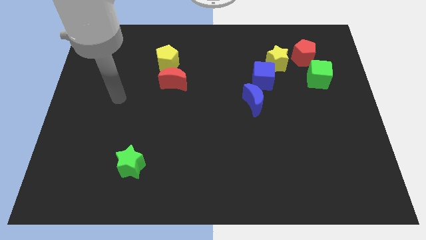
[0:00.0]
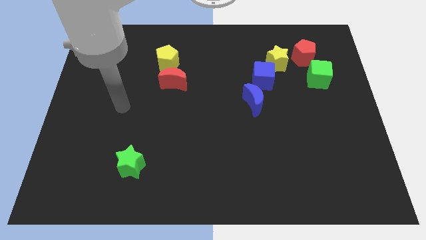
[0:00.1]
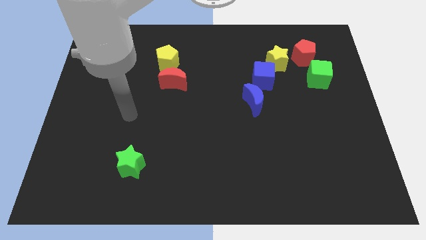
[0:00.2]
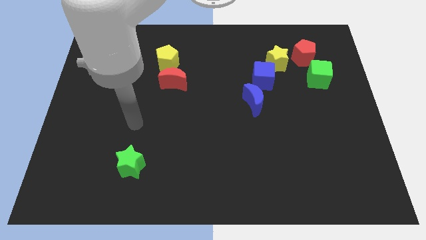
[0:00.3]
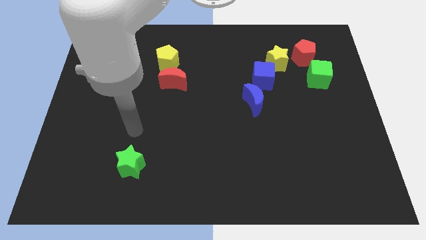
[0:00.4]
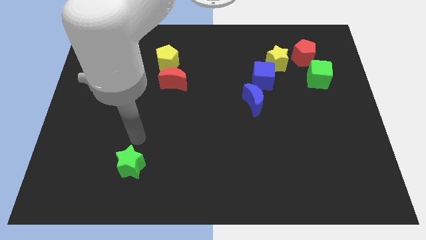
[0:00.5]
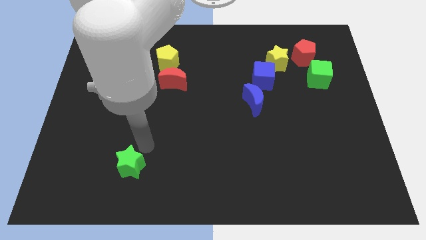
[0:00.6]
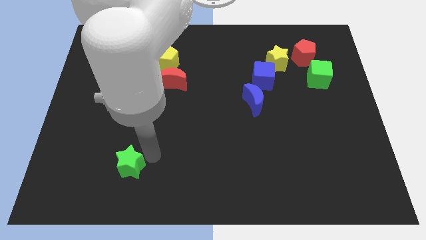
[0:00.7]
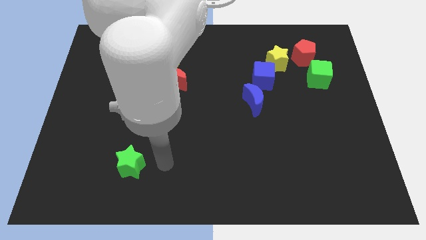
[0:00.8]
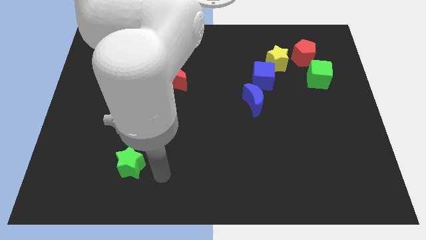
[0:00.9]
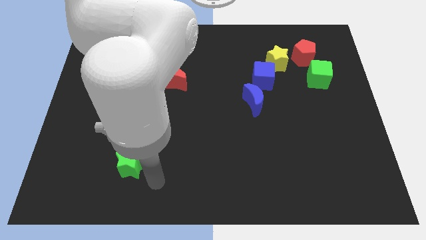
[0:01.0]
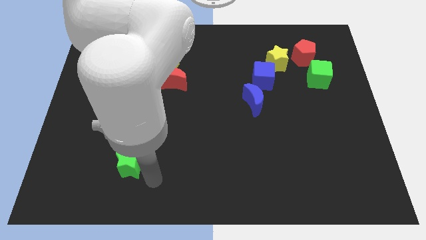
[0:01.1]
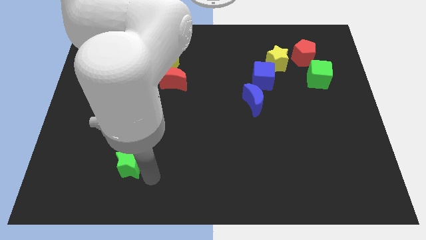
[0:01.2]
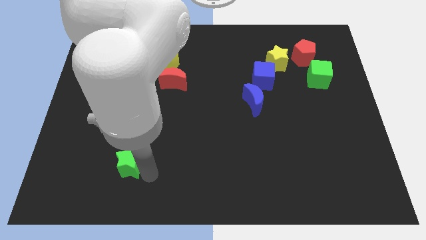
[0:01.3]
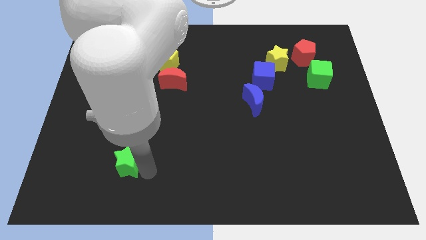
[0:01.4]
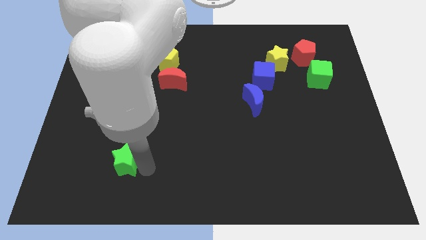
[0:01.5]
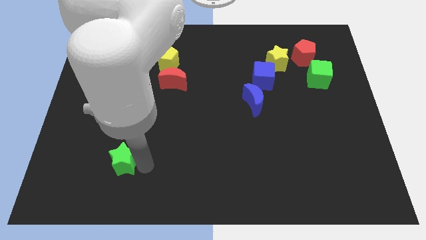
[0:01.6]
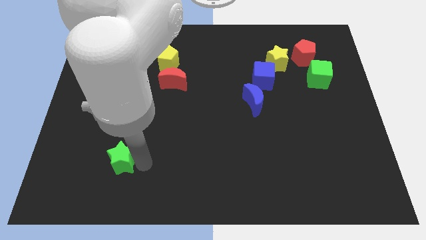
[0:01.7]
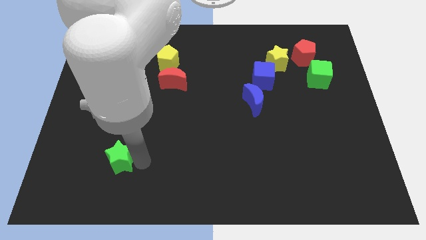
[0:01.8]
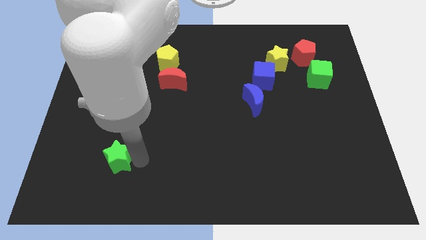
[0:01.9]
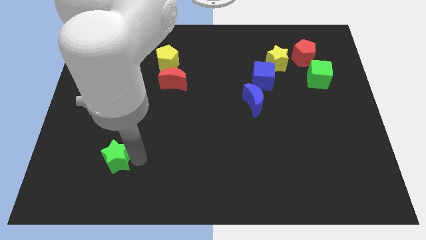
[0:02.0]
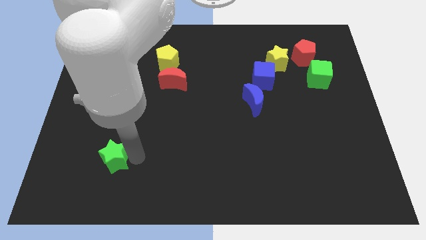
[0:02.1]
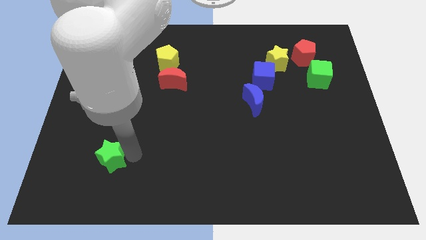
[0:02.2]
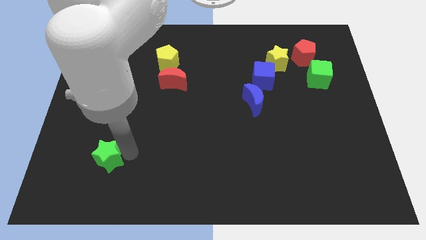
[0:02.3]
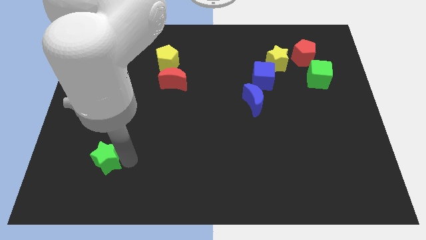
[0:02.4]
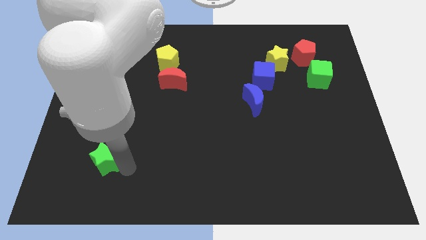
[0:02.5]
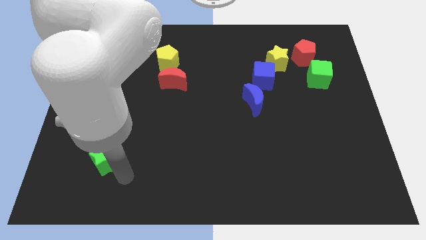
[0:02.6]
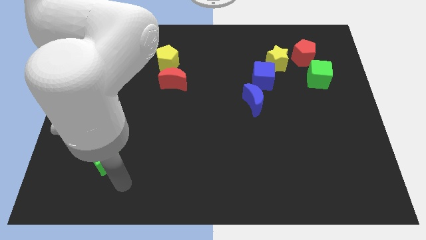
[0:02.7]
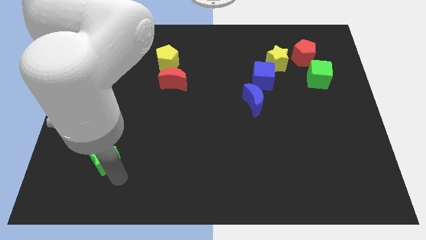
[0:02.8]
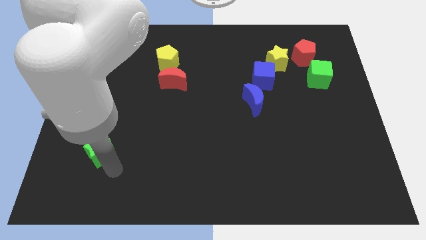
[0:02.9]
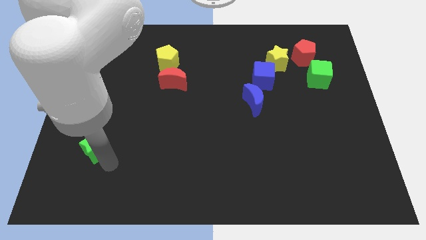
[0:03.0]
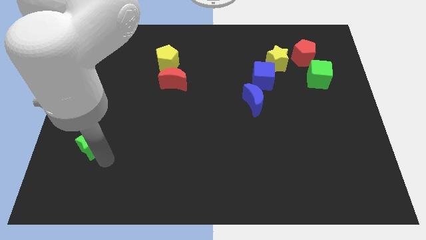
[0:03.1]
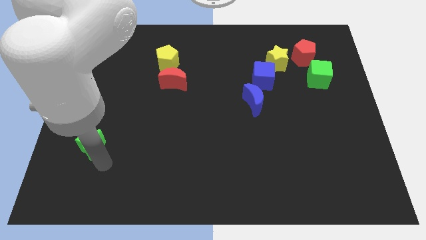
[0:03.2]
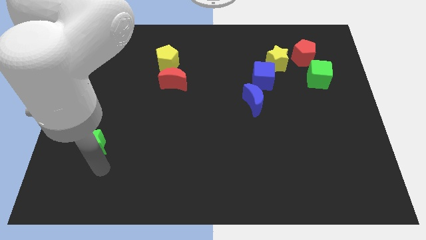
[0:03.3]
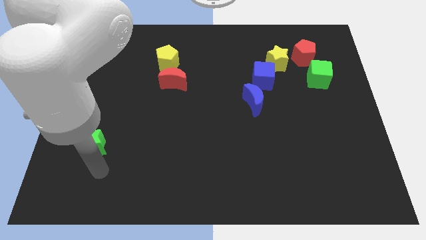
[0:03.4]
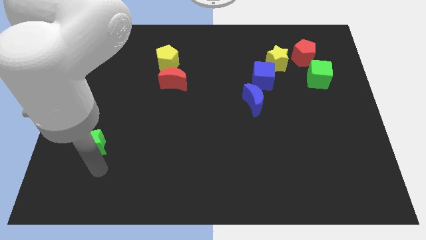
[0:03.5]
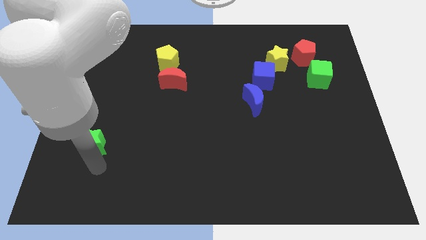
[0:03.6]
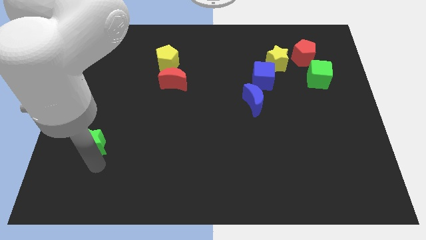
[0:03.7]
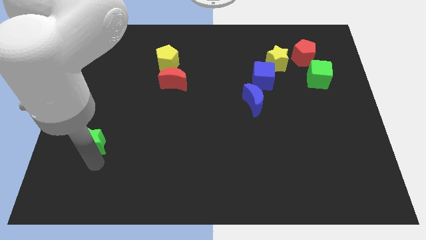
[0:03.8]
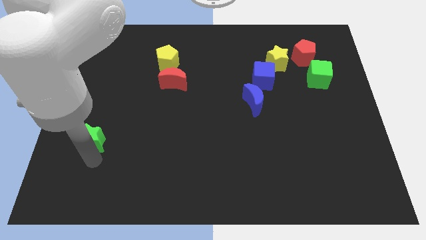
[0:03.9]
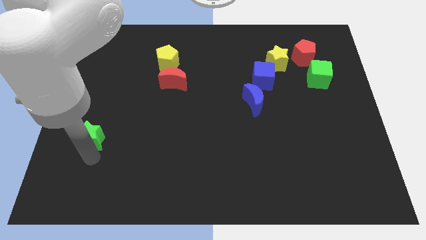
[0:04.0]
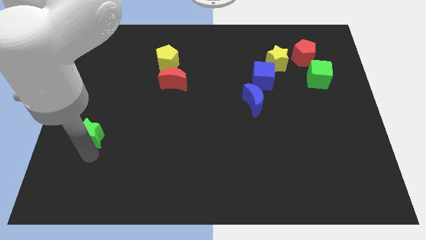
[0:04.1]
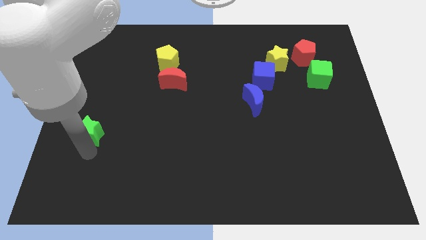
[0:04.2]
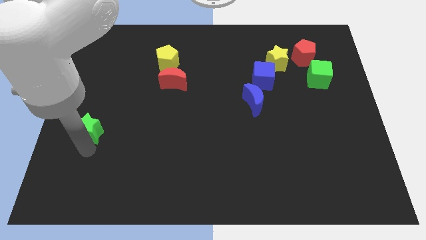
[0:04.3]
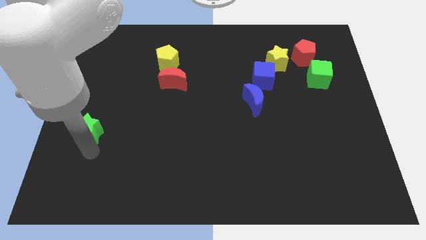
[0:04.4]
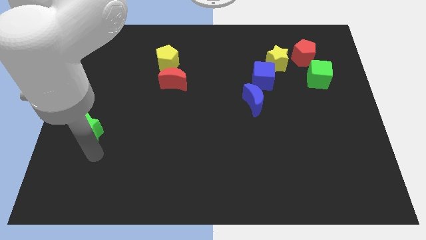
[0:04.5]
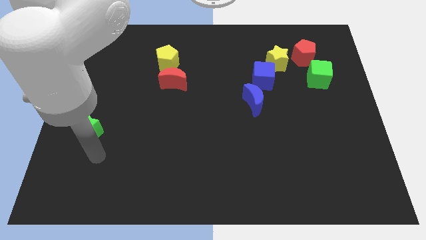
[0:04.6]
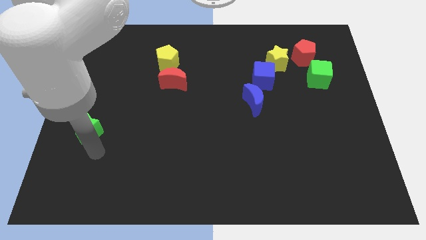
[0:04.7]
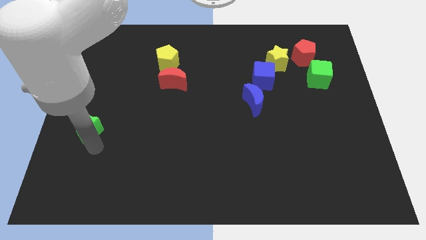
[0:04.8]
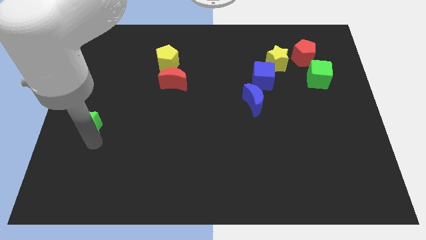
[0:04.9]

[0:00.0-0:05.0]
push the green star to the left side

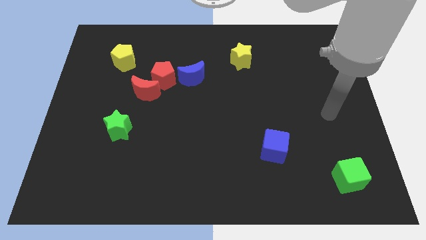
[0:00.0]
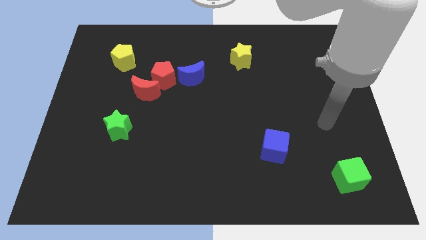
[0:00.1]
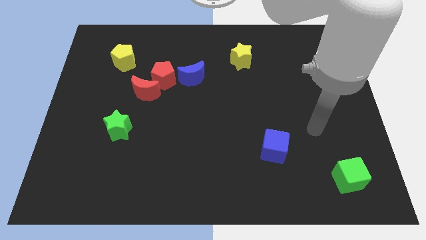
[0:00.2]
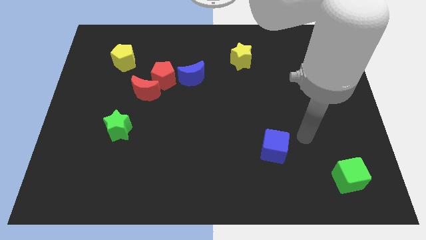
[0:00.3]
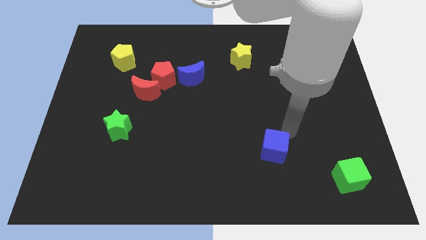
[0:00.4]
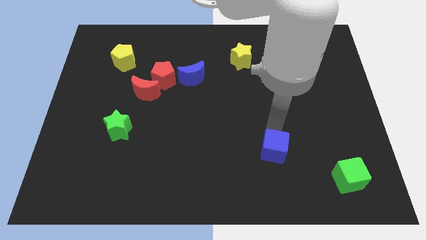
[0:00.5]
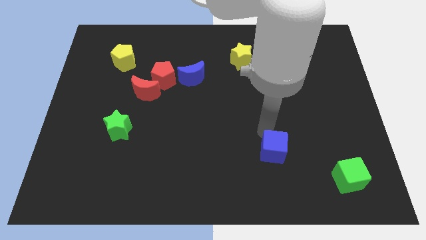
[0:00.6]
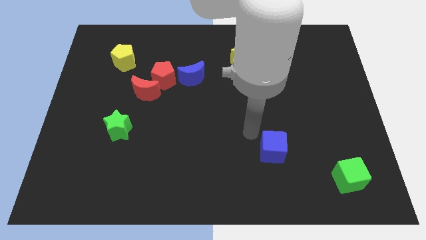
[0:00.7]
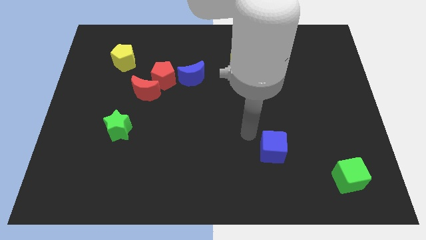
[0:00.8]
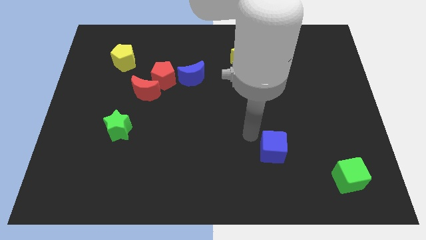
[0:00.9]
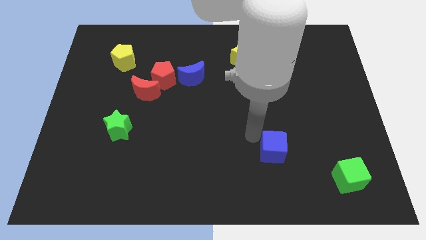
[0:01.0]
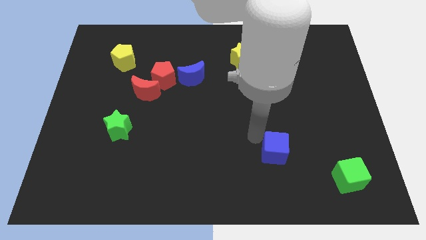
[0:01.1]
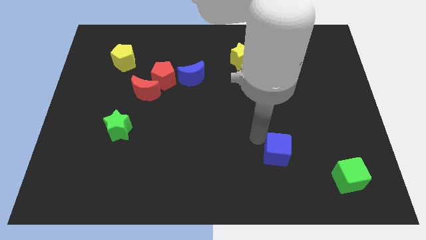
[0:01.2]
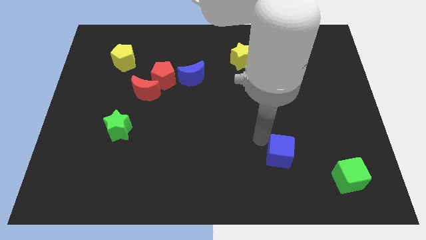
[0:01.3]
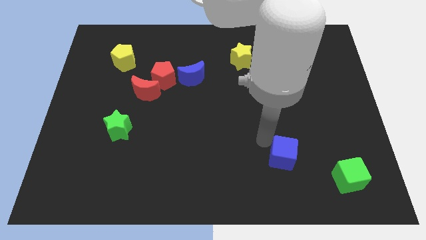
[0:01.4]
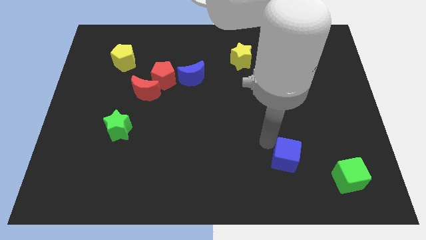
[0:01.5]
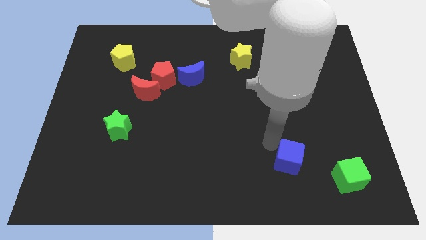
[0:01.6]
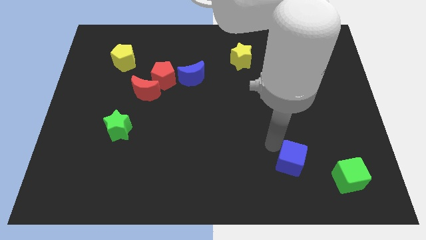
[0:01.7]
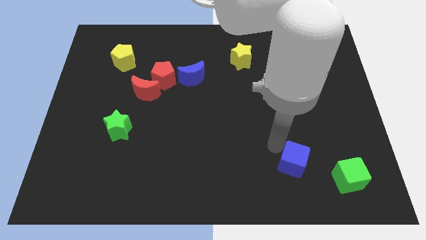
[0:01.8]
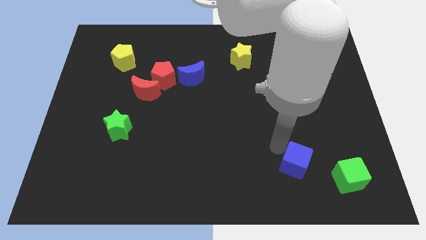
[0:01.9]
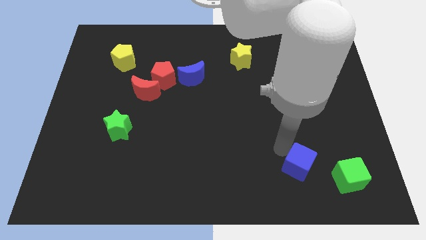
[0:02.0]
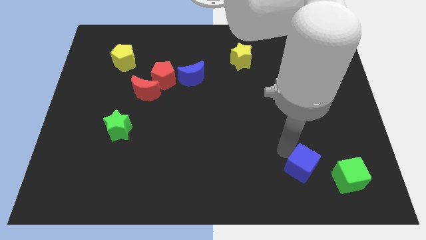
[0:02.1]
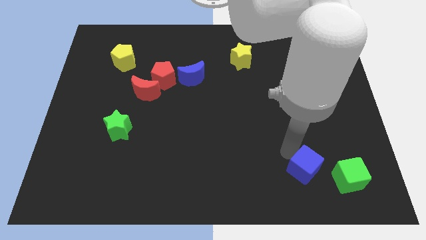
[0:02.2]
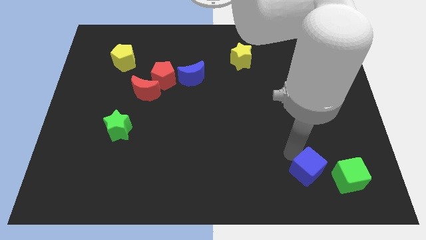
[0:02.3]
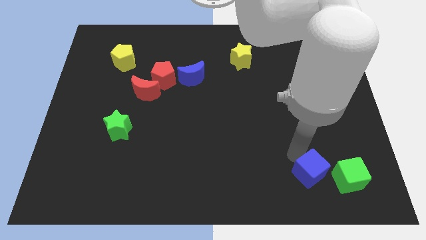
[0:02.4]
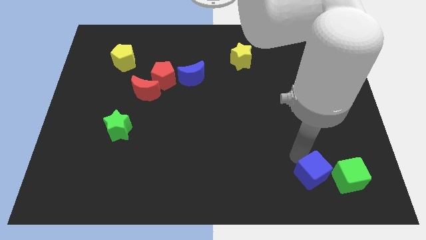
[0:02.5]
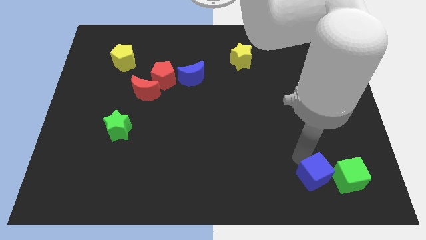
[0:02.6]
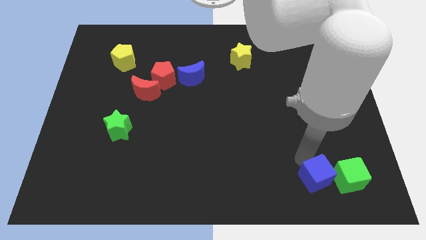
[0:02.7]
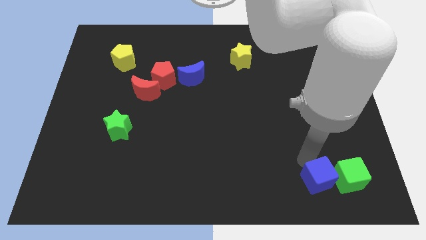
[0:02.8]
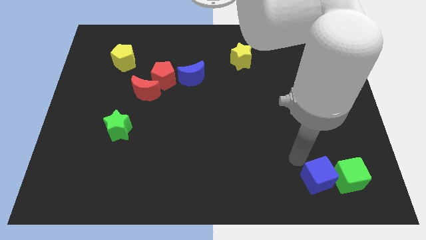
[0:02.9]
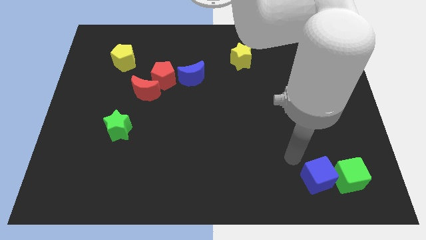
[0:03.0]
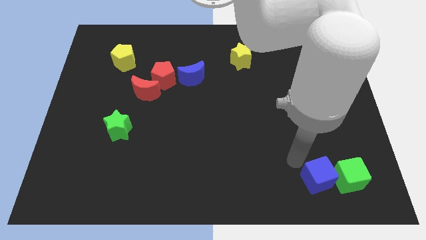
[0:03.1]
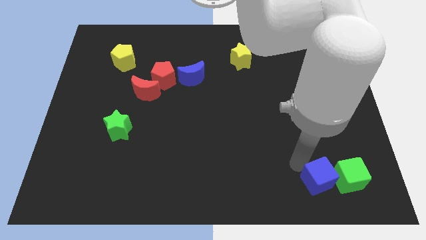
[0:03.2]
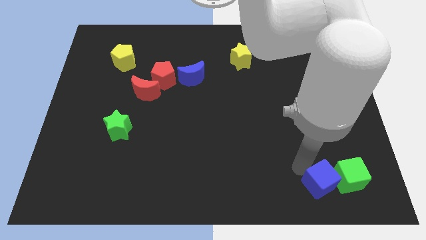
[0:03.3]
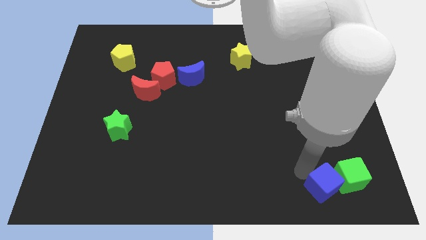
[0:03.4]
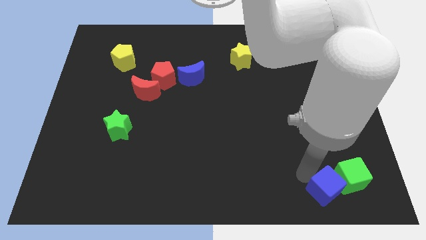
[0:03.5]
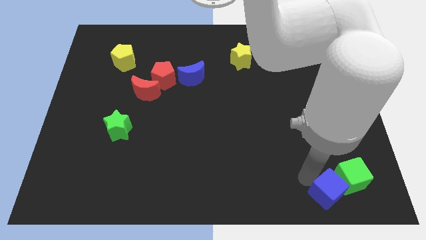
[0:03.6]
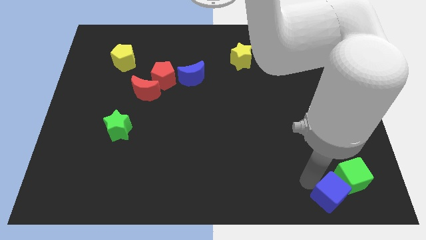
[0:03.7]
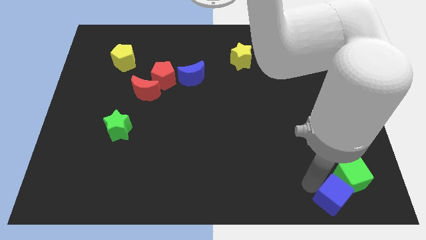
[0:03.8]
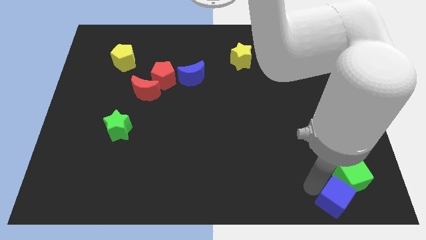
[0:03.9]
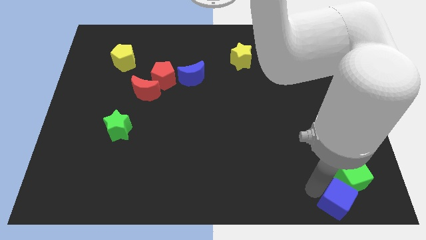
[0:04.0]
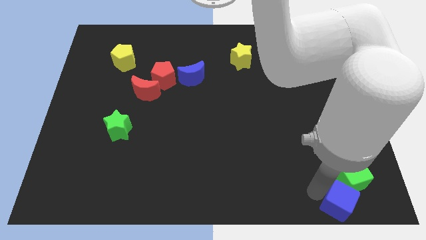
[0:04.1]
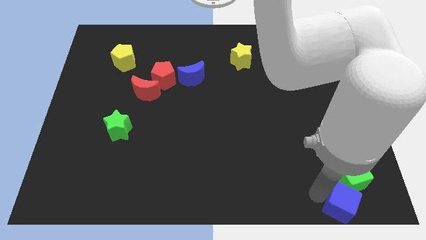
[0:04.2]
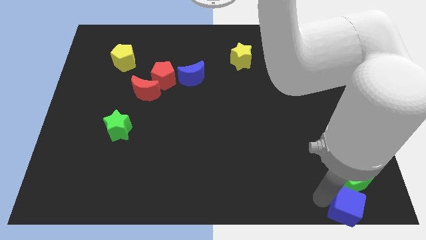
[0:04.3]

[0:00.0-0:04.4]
move the blue cube to the bottom right
